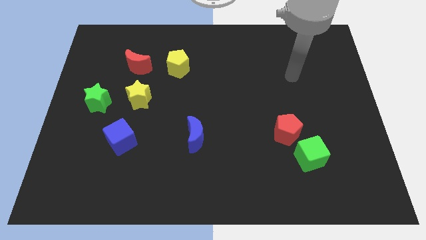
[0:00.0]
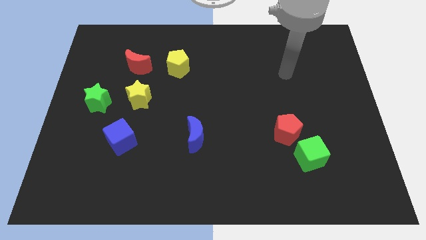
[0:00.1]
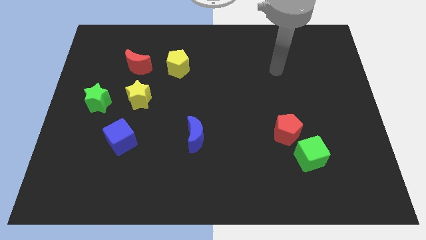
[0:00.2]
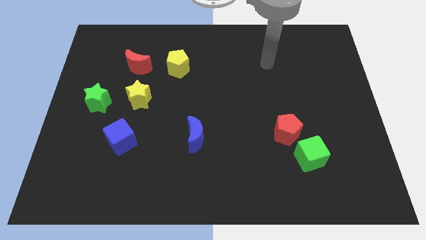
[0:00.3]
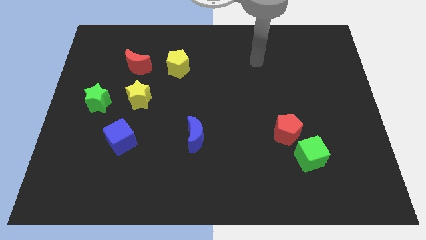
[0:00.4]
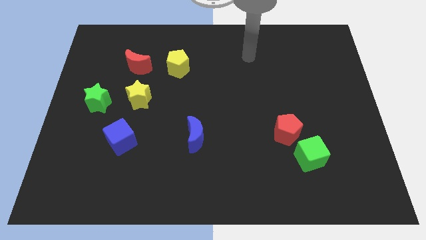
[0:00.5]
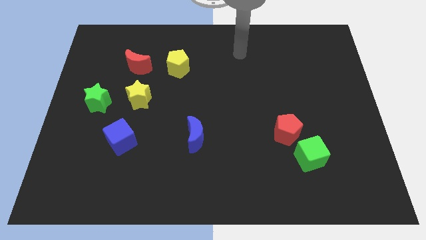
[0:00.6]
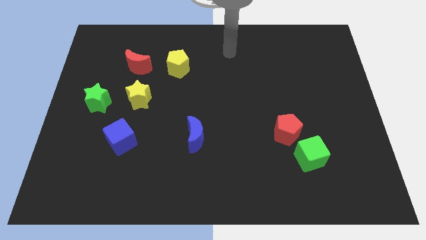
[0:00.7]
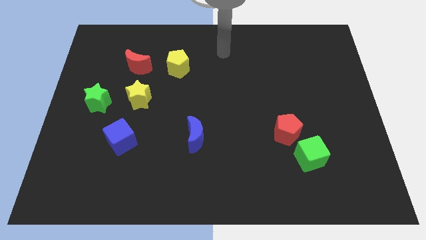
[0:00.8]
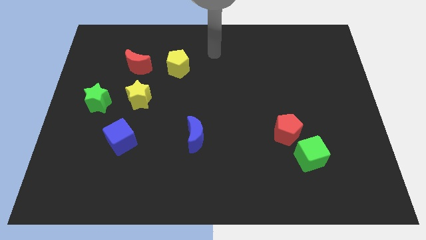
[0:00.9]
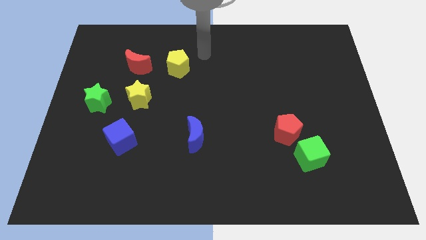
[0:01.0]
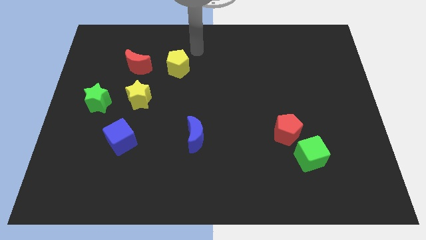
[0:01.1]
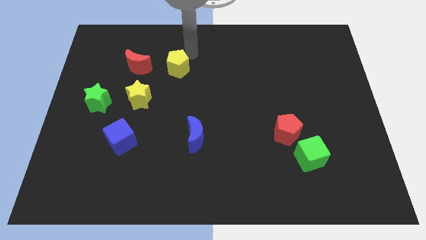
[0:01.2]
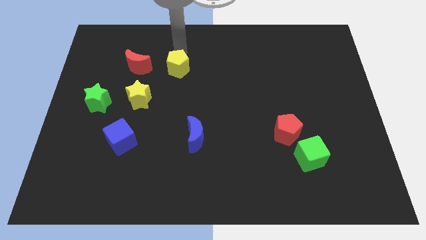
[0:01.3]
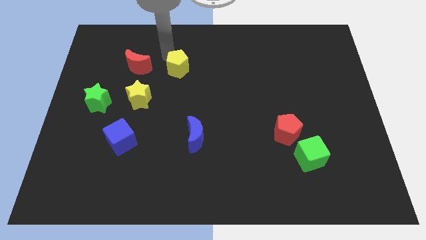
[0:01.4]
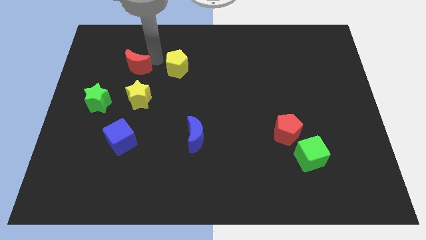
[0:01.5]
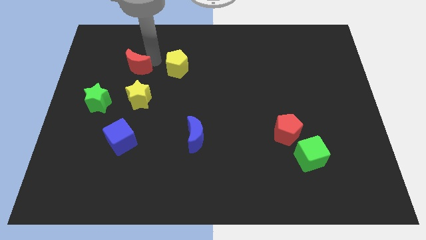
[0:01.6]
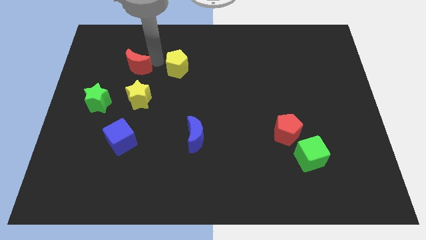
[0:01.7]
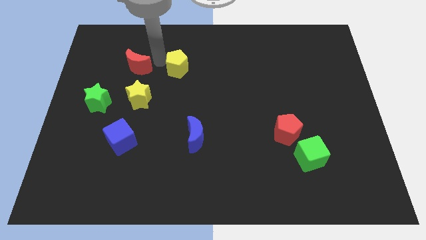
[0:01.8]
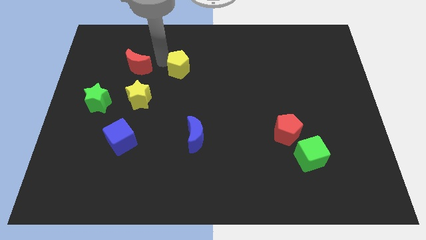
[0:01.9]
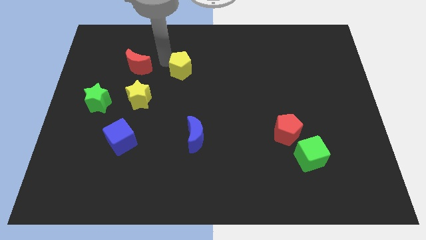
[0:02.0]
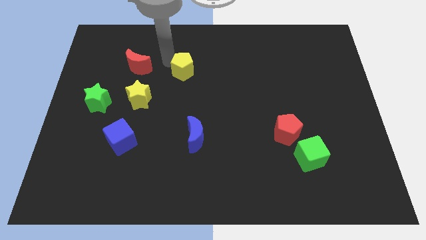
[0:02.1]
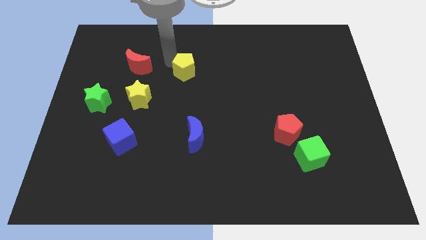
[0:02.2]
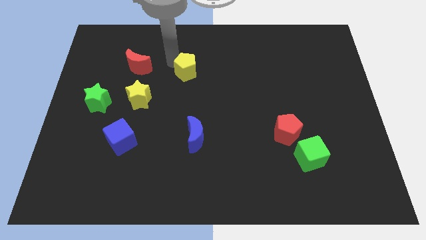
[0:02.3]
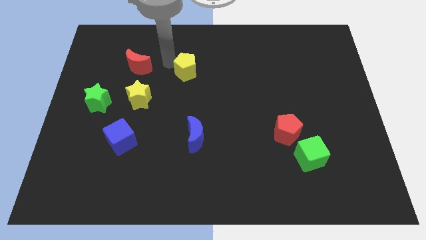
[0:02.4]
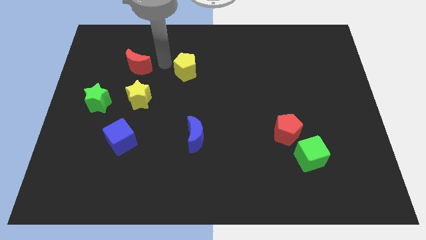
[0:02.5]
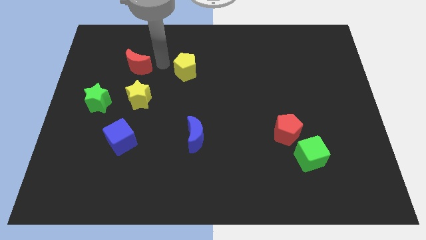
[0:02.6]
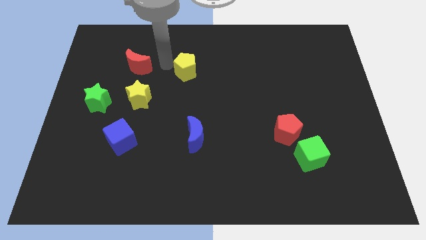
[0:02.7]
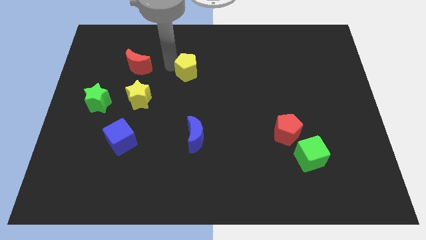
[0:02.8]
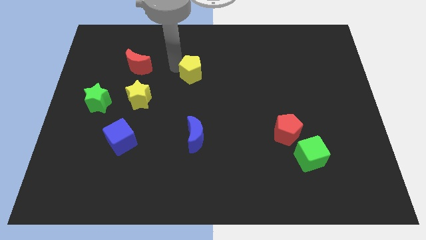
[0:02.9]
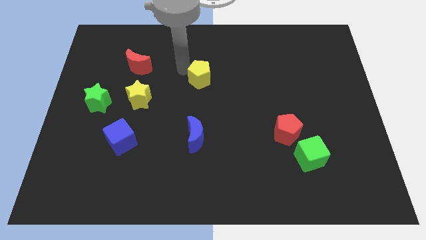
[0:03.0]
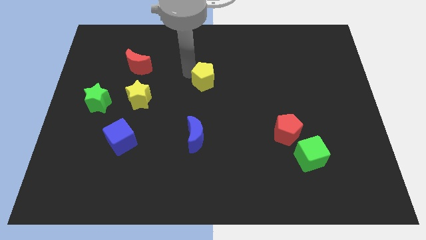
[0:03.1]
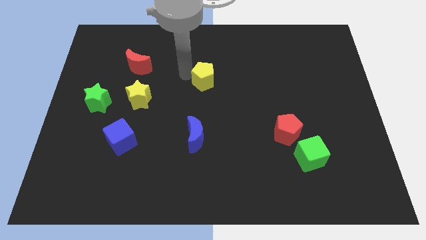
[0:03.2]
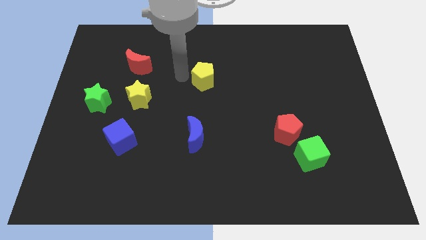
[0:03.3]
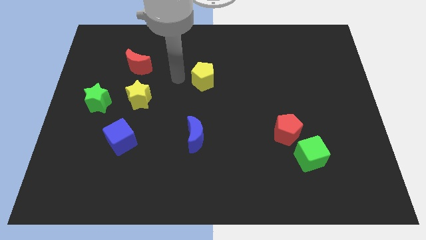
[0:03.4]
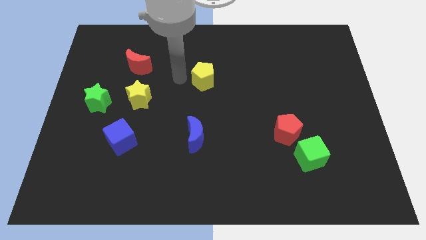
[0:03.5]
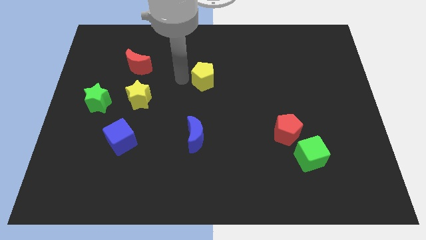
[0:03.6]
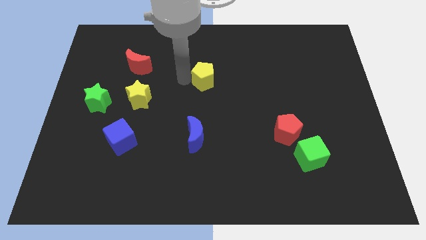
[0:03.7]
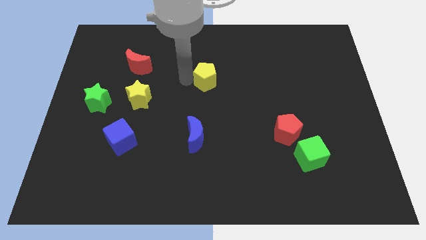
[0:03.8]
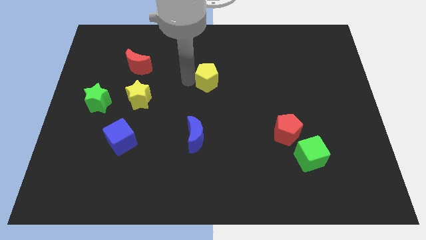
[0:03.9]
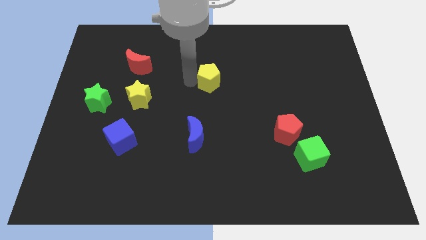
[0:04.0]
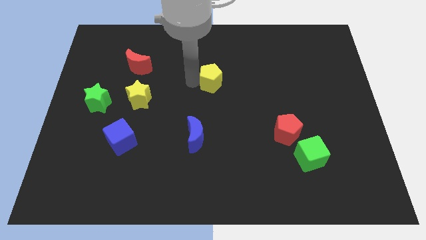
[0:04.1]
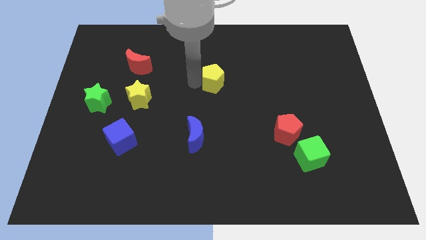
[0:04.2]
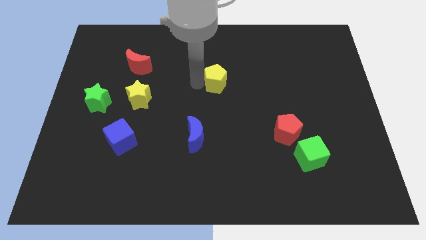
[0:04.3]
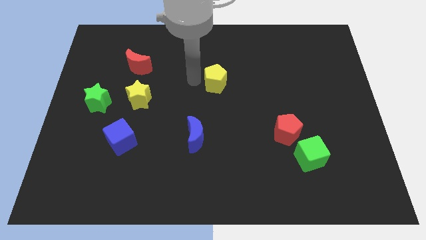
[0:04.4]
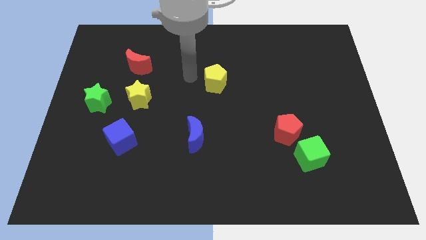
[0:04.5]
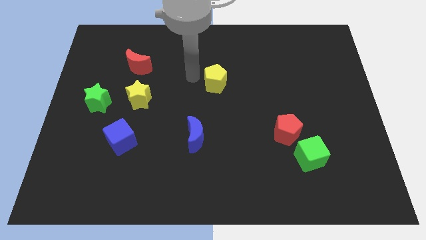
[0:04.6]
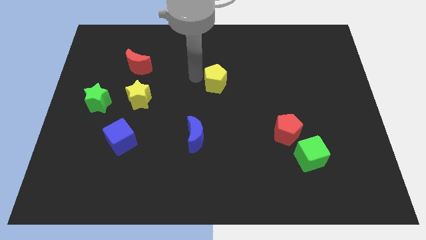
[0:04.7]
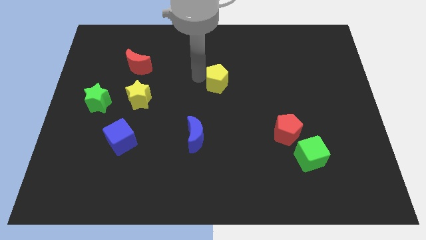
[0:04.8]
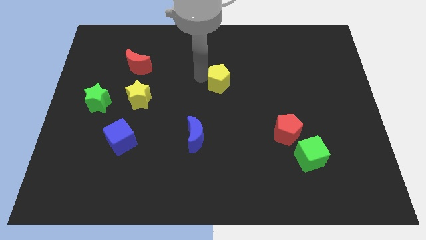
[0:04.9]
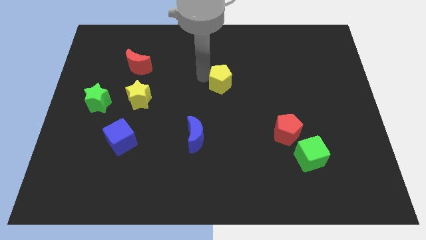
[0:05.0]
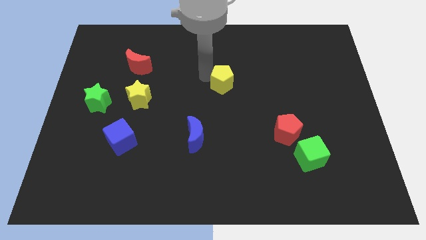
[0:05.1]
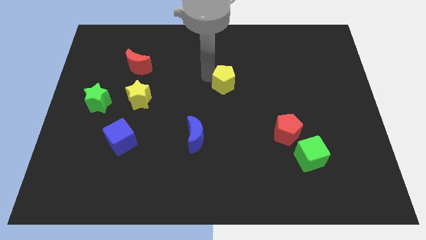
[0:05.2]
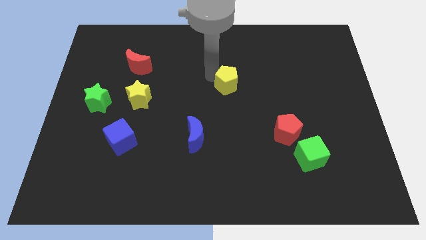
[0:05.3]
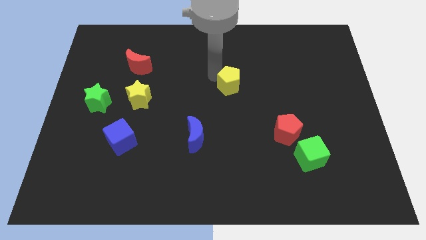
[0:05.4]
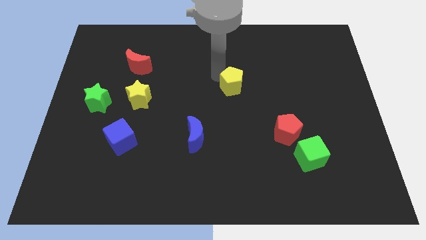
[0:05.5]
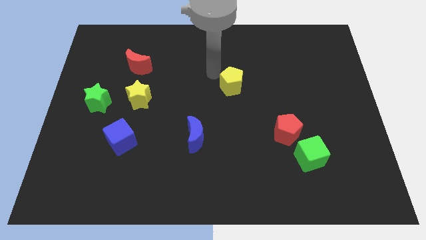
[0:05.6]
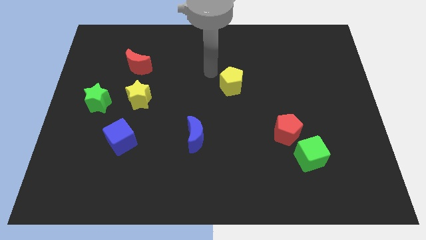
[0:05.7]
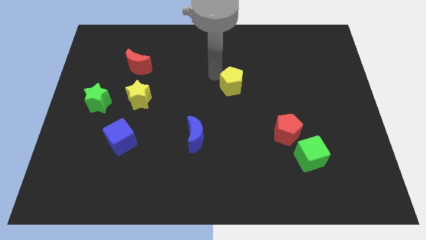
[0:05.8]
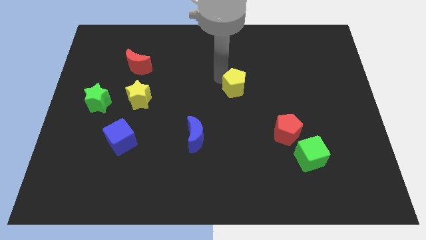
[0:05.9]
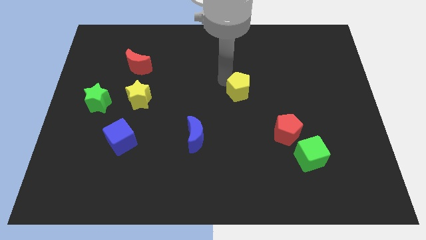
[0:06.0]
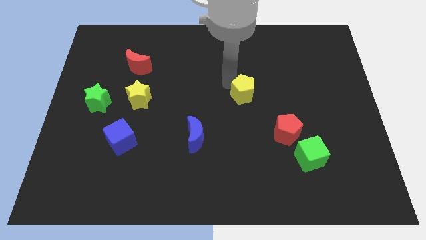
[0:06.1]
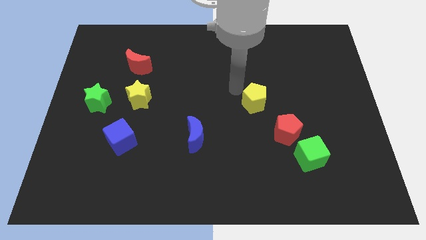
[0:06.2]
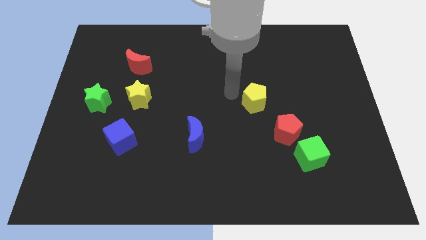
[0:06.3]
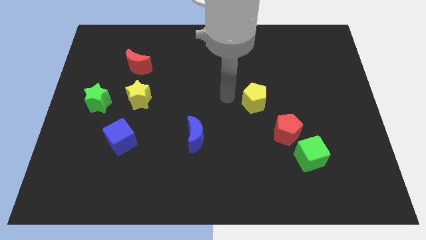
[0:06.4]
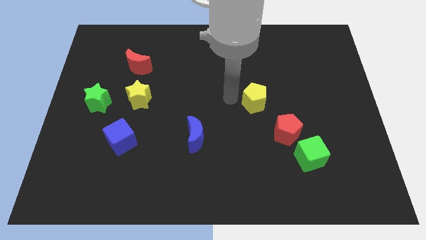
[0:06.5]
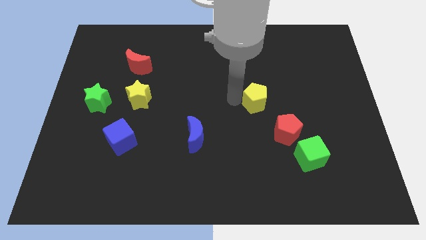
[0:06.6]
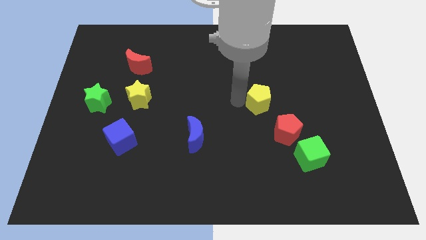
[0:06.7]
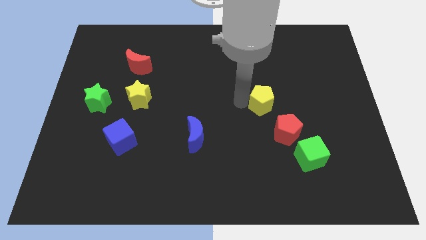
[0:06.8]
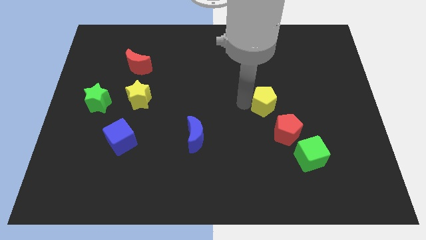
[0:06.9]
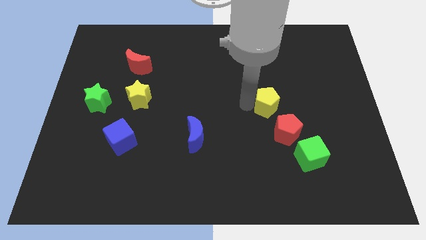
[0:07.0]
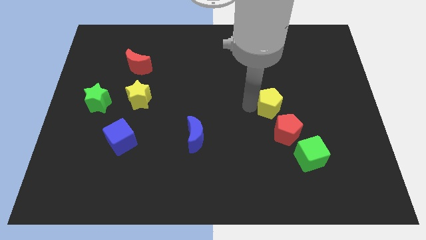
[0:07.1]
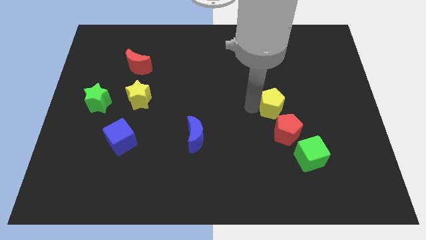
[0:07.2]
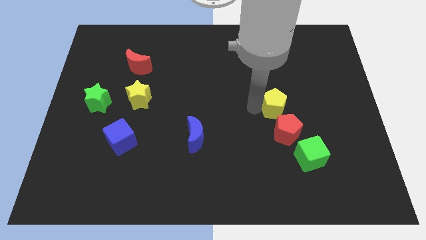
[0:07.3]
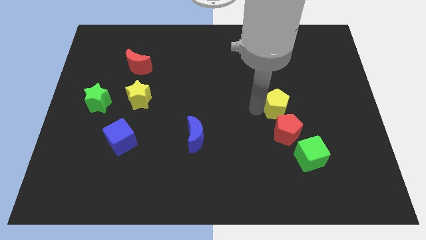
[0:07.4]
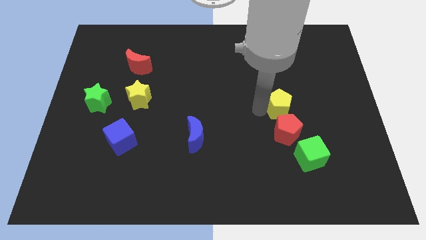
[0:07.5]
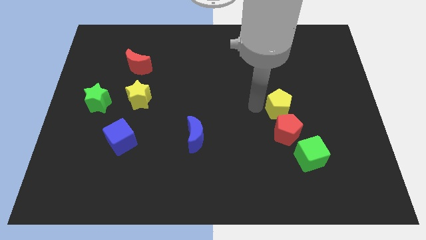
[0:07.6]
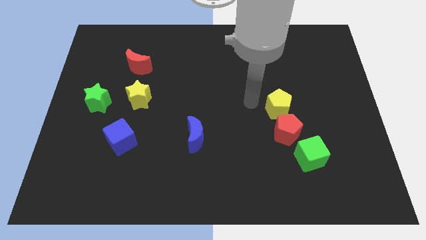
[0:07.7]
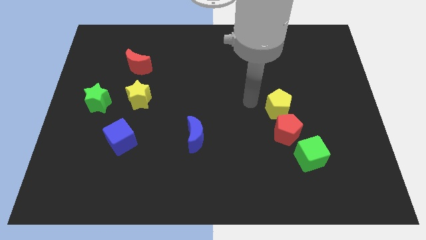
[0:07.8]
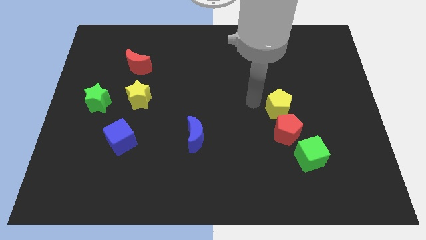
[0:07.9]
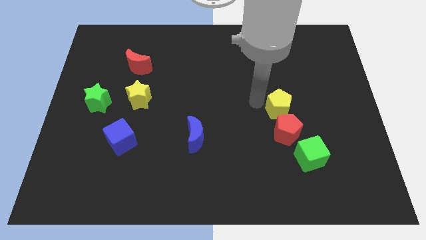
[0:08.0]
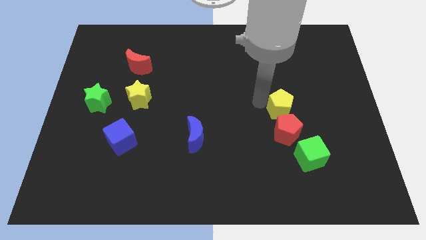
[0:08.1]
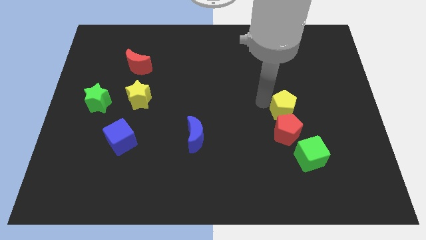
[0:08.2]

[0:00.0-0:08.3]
push the yellow pentagon to the top right side of the red pentagon
